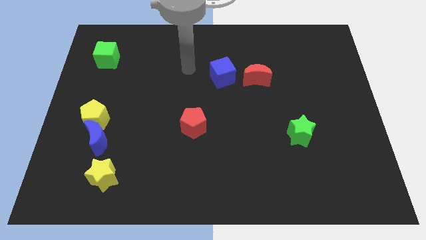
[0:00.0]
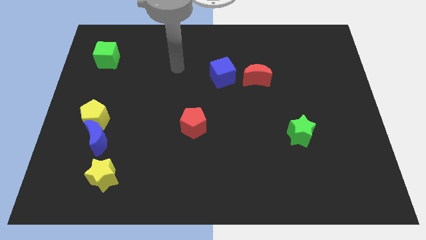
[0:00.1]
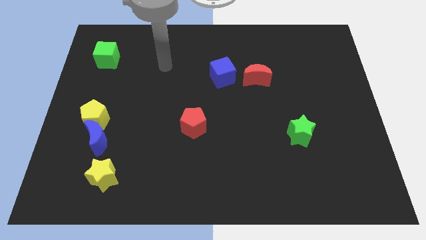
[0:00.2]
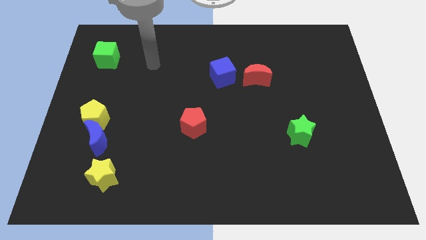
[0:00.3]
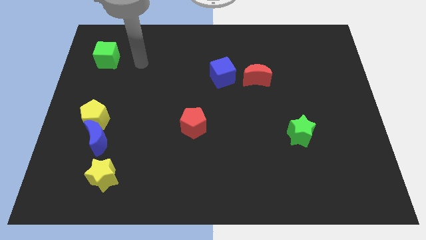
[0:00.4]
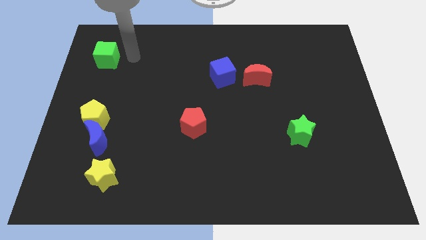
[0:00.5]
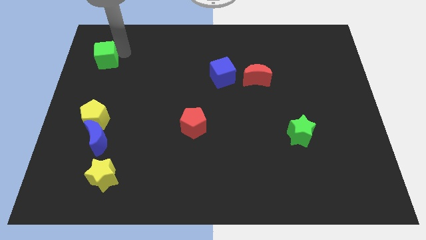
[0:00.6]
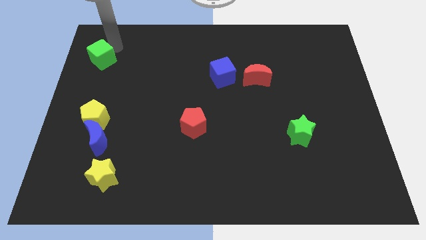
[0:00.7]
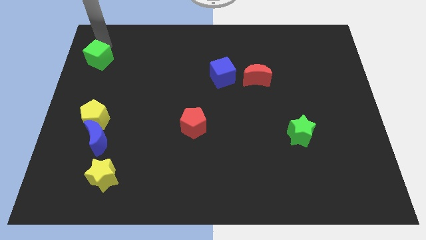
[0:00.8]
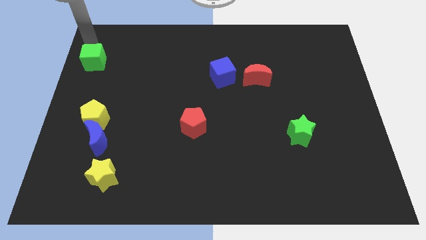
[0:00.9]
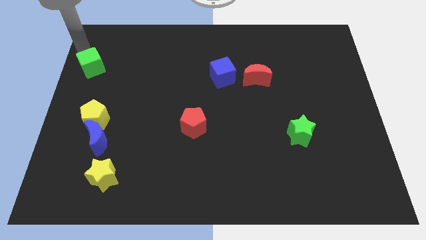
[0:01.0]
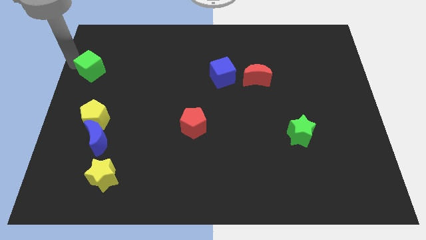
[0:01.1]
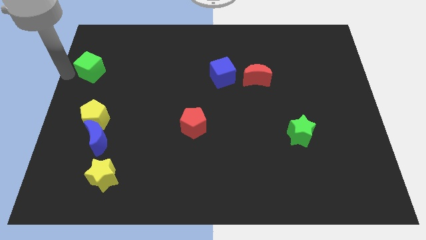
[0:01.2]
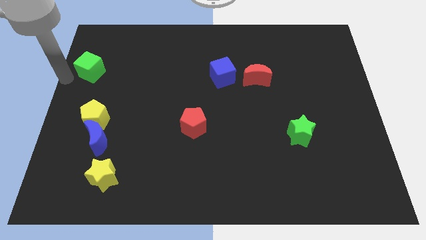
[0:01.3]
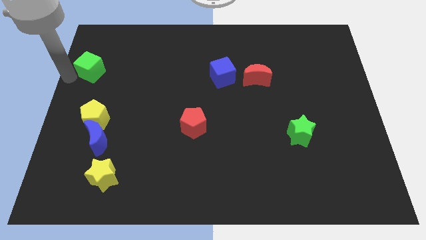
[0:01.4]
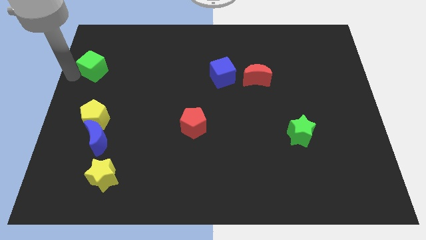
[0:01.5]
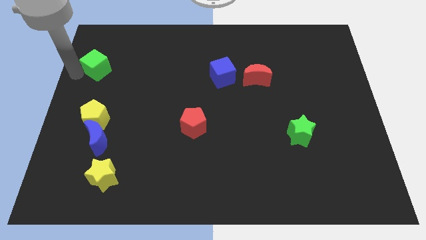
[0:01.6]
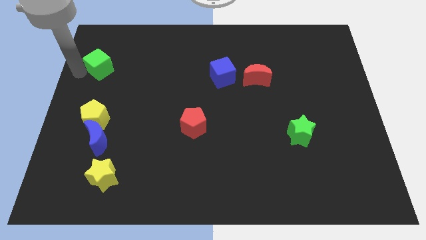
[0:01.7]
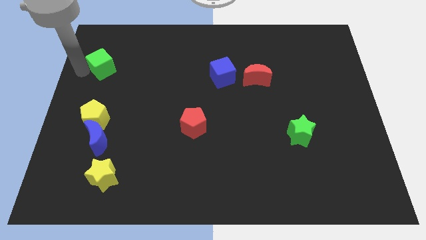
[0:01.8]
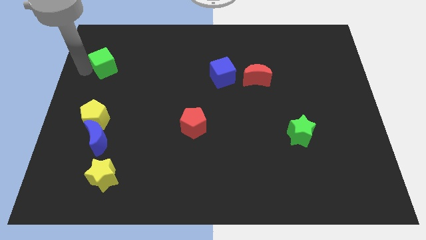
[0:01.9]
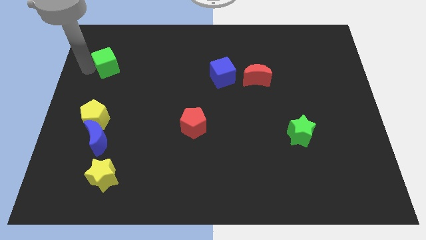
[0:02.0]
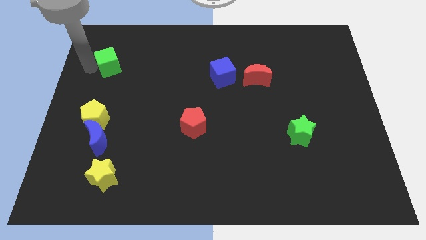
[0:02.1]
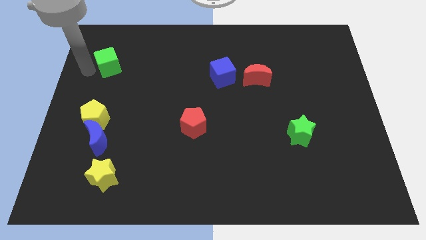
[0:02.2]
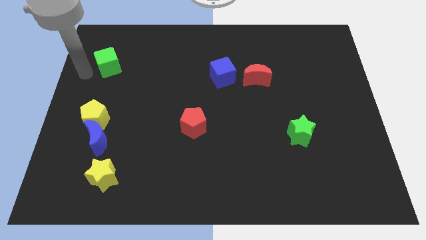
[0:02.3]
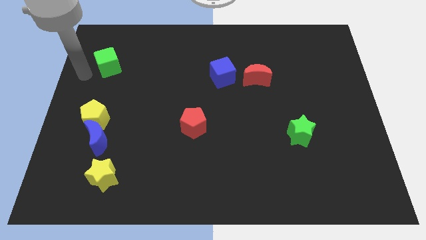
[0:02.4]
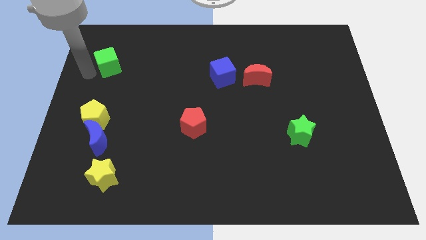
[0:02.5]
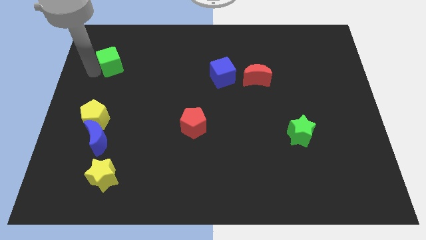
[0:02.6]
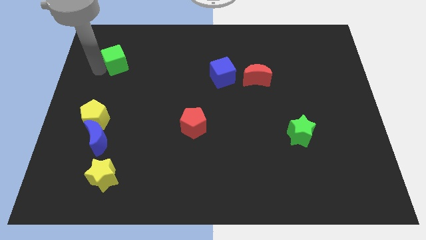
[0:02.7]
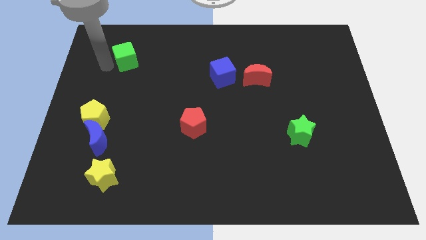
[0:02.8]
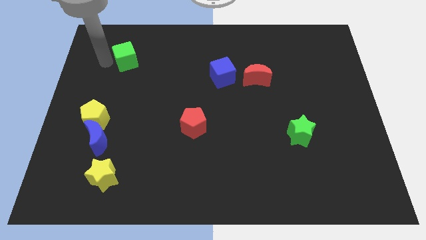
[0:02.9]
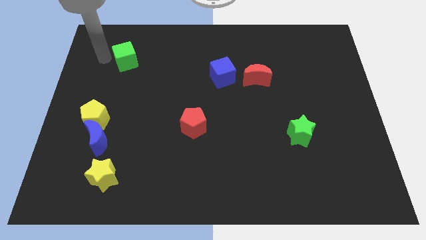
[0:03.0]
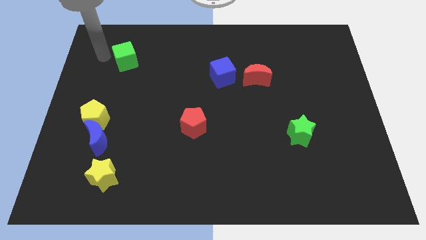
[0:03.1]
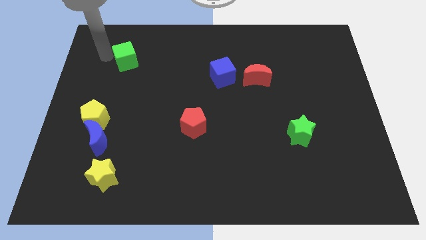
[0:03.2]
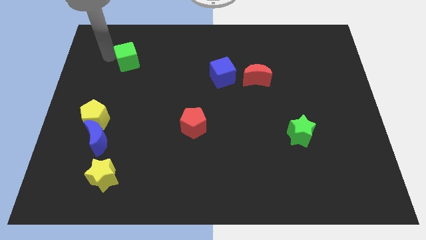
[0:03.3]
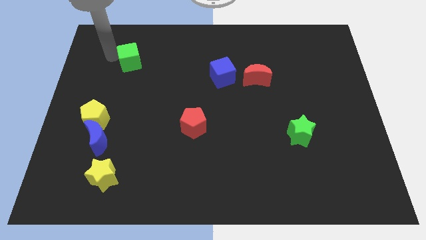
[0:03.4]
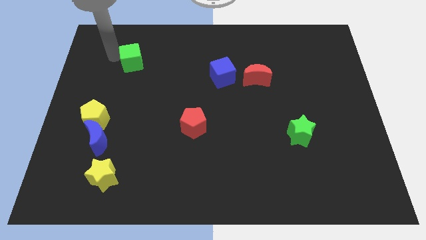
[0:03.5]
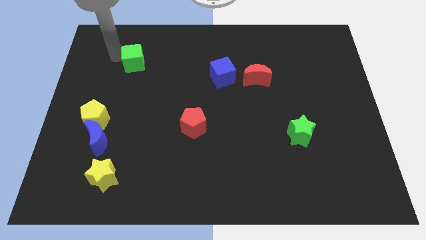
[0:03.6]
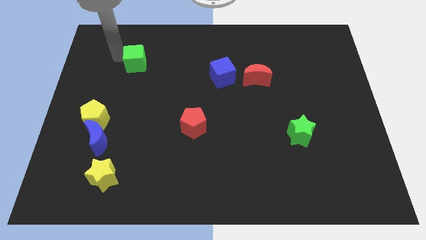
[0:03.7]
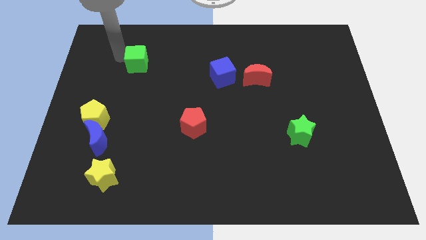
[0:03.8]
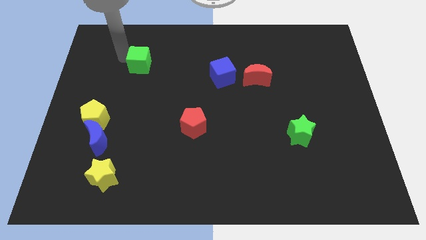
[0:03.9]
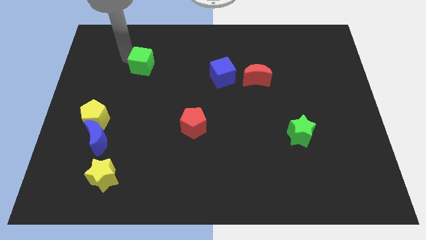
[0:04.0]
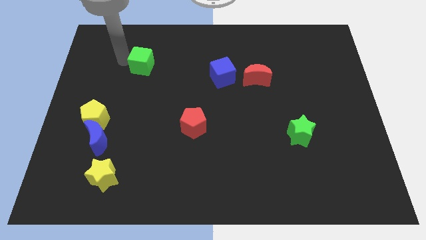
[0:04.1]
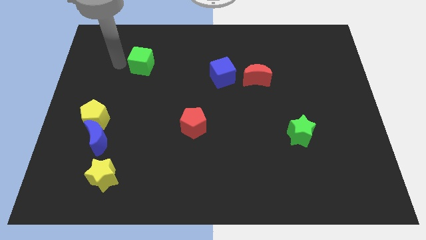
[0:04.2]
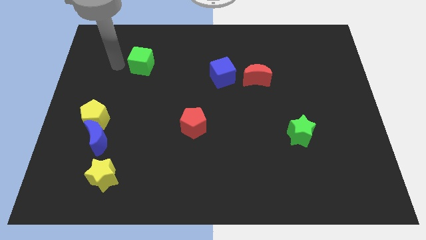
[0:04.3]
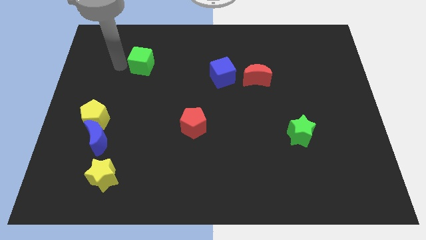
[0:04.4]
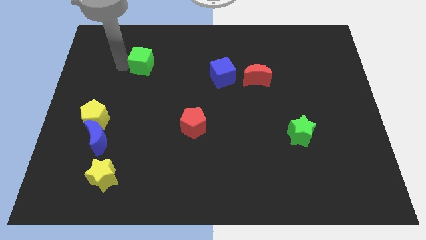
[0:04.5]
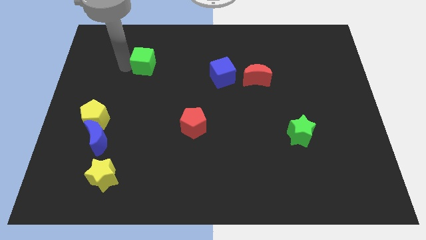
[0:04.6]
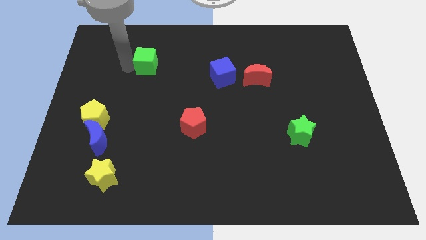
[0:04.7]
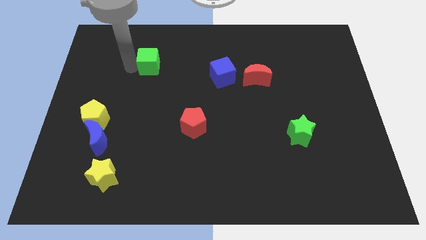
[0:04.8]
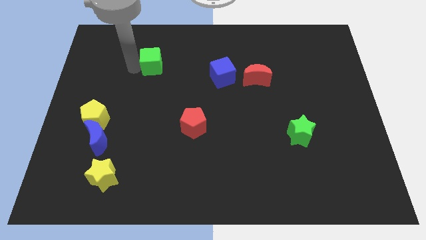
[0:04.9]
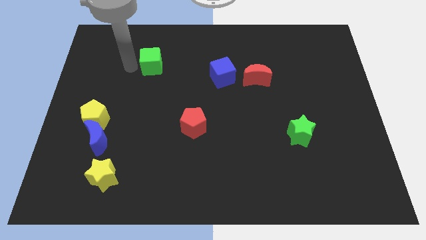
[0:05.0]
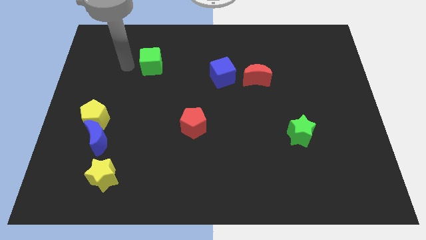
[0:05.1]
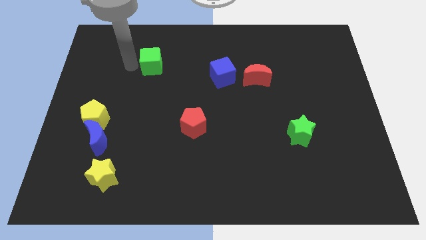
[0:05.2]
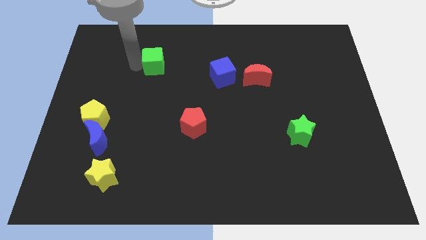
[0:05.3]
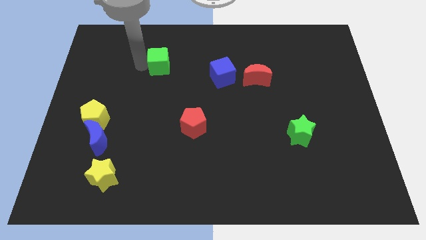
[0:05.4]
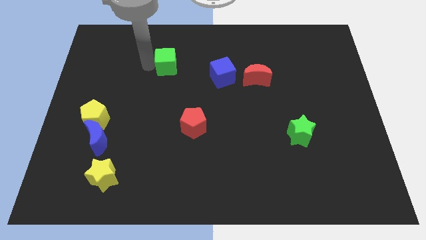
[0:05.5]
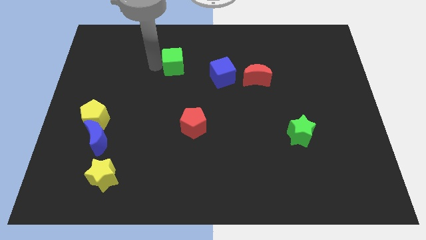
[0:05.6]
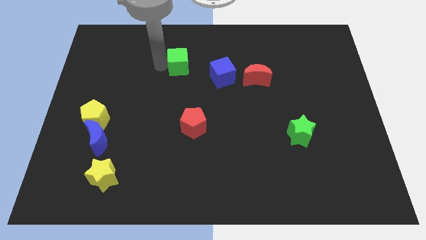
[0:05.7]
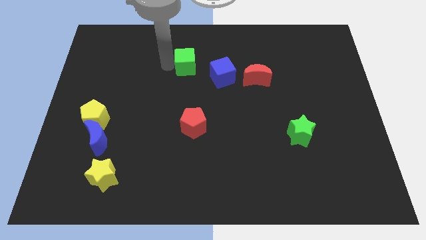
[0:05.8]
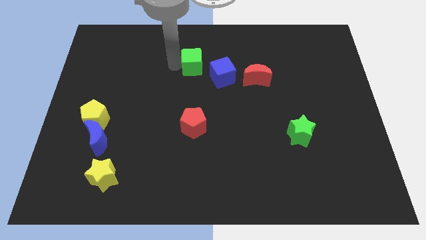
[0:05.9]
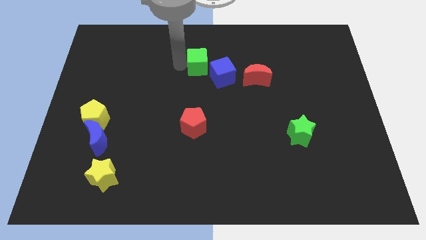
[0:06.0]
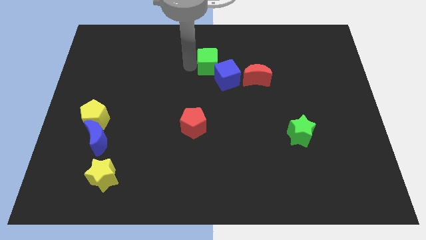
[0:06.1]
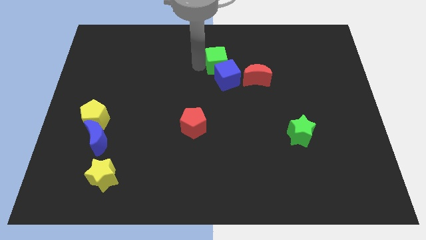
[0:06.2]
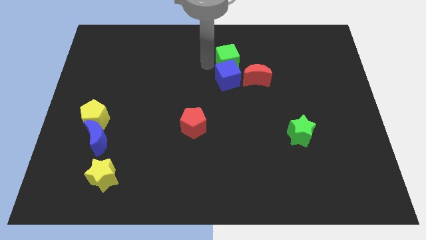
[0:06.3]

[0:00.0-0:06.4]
put the green cube to the top right of the blue cube

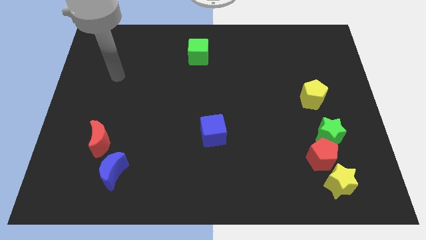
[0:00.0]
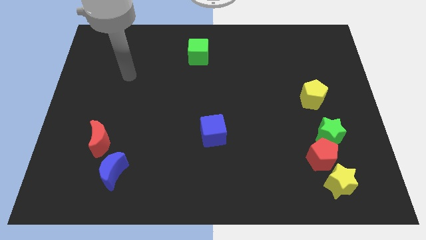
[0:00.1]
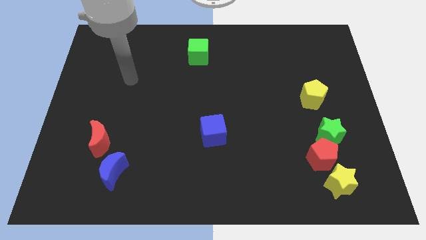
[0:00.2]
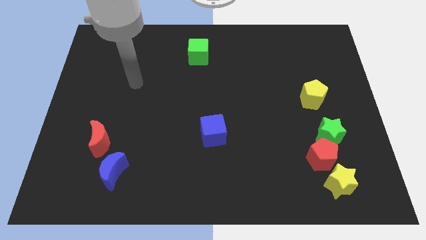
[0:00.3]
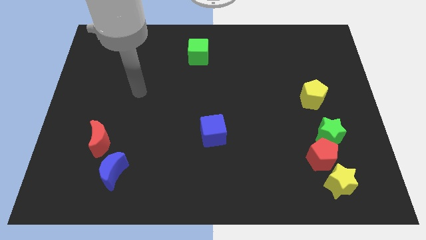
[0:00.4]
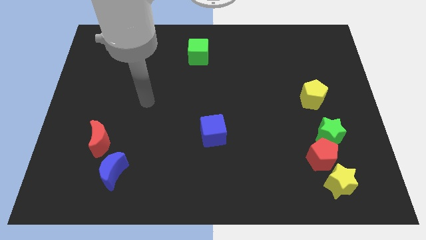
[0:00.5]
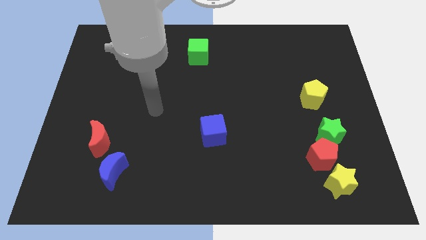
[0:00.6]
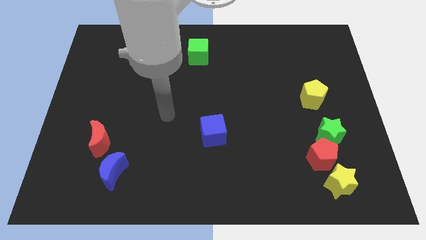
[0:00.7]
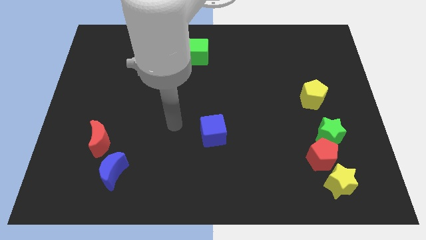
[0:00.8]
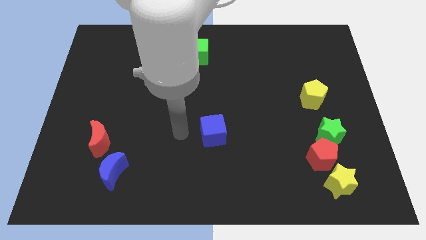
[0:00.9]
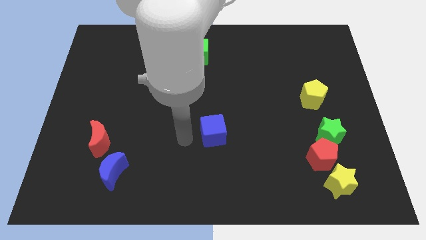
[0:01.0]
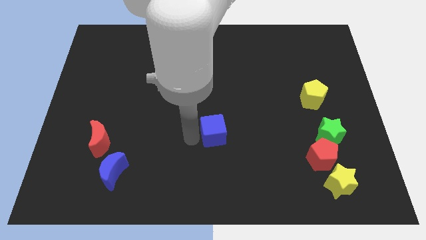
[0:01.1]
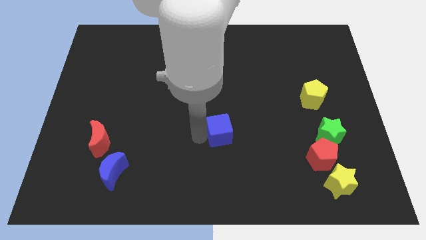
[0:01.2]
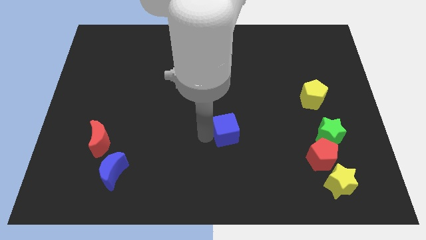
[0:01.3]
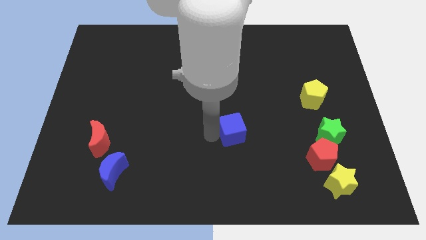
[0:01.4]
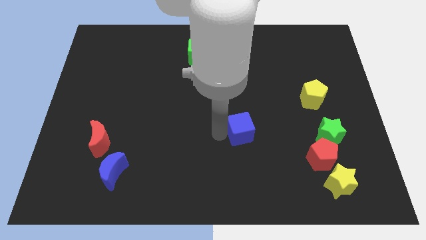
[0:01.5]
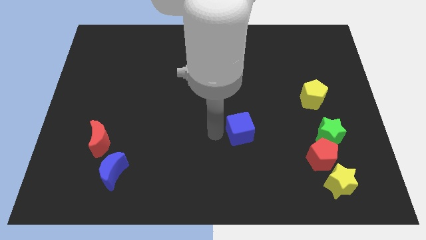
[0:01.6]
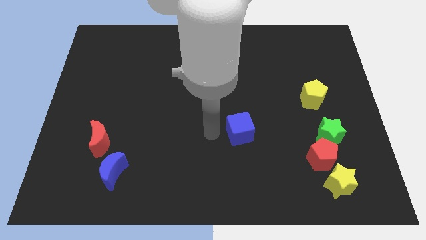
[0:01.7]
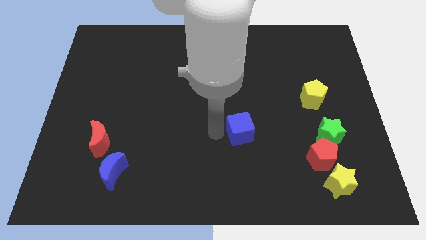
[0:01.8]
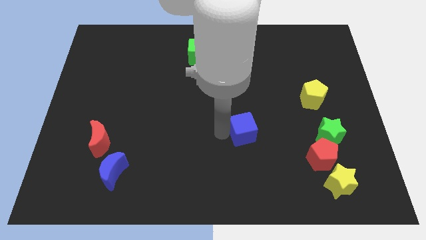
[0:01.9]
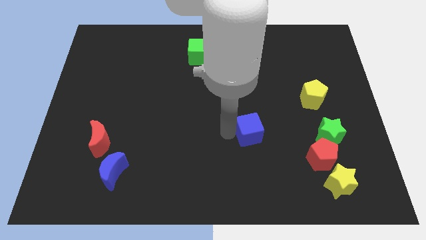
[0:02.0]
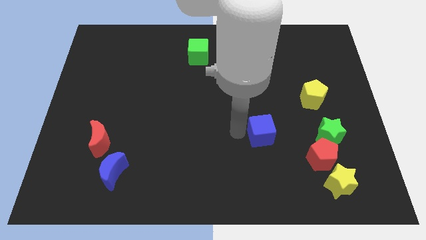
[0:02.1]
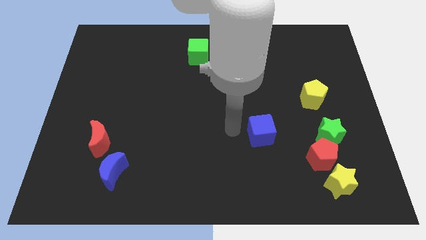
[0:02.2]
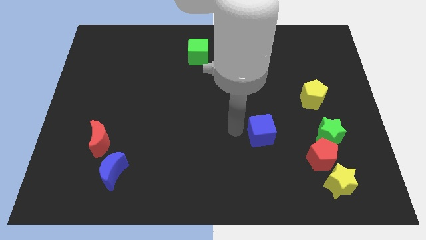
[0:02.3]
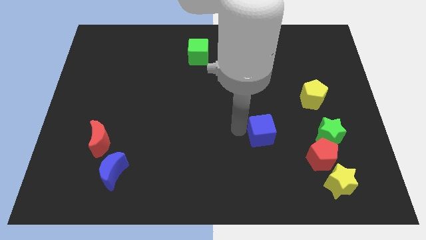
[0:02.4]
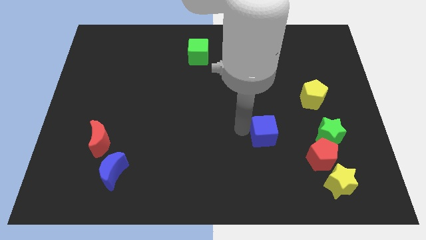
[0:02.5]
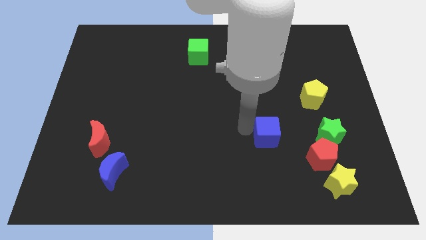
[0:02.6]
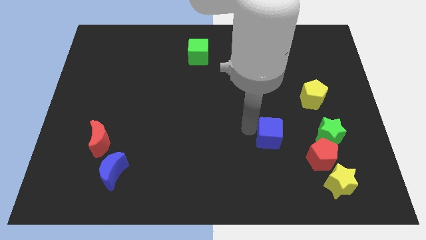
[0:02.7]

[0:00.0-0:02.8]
push the blue cube to the top left of the red pentagon
